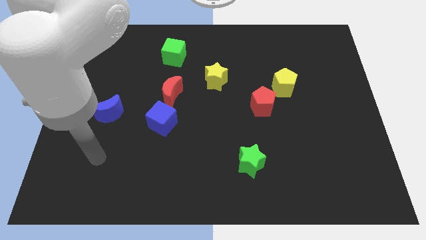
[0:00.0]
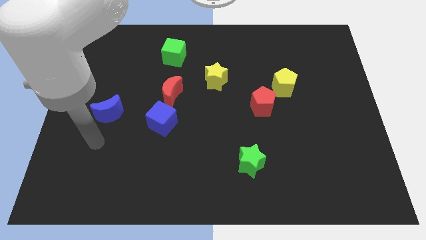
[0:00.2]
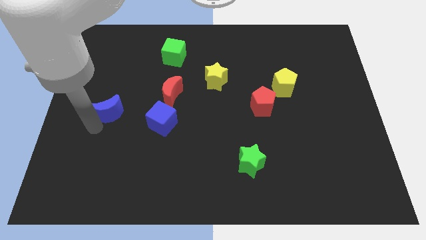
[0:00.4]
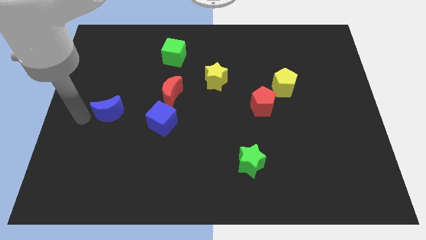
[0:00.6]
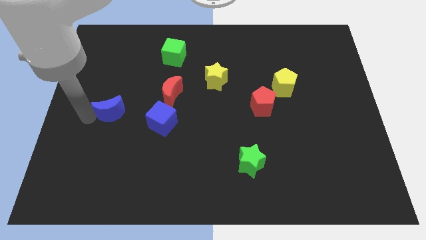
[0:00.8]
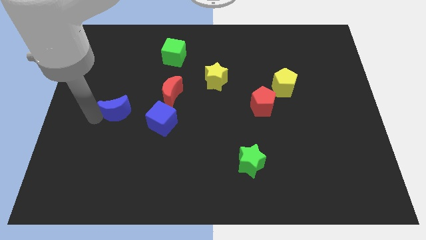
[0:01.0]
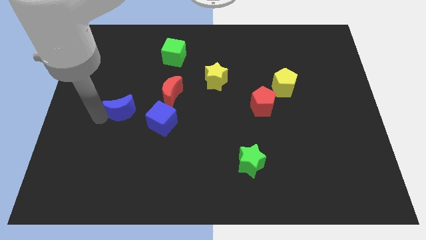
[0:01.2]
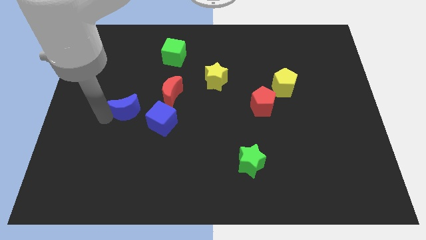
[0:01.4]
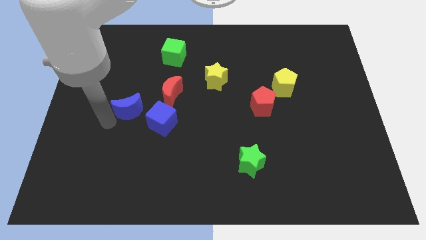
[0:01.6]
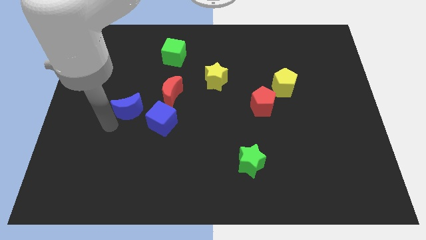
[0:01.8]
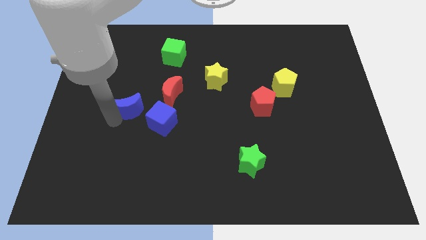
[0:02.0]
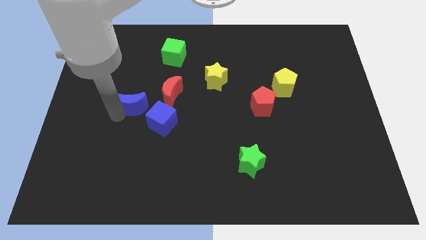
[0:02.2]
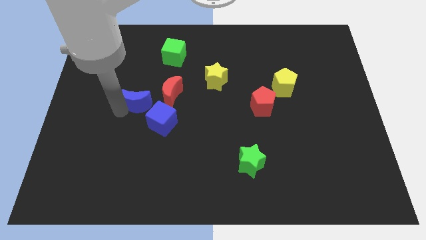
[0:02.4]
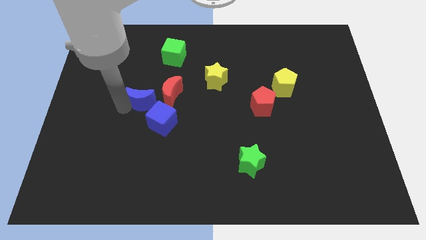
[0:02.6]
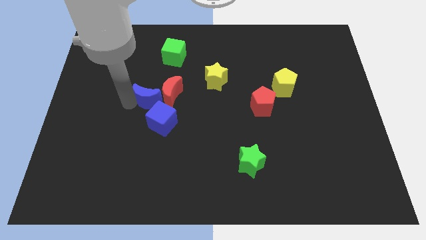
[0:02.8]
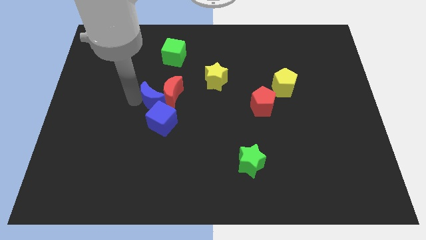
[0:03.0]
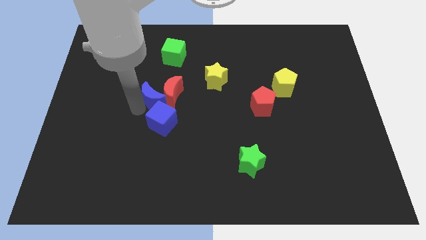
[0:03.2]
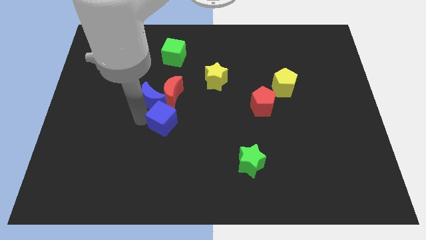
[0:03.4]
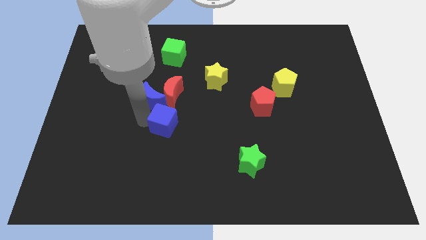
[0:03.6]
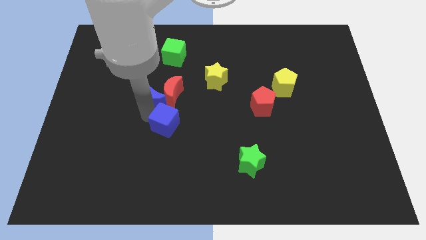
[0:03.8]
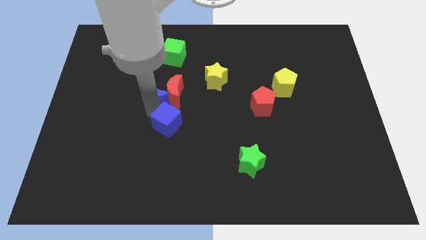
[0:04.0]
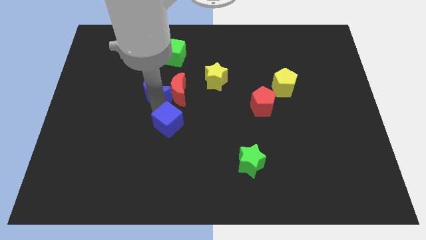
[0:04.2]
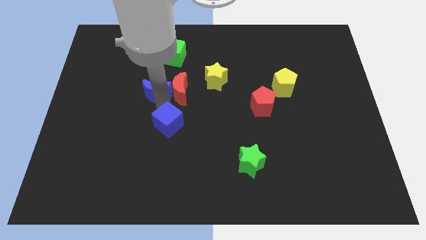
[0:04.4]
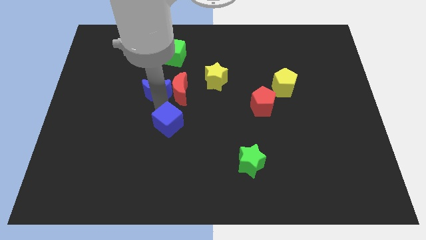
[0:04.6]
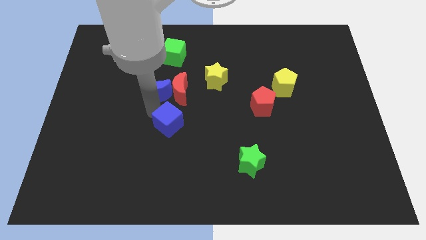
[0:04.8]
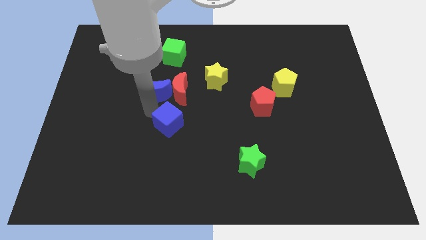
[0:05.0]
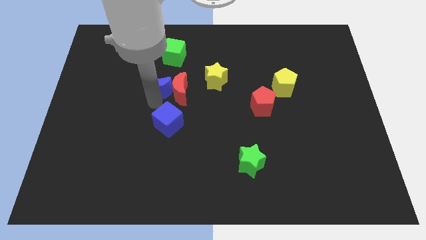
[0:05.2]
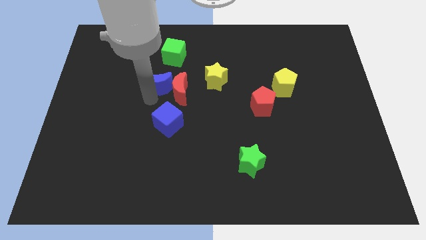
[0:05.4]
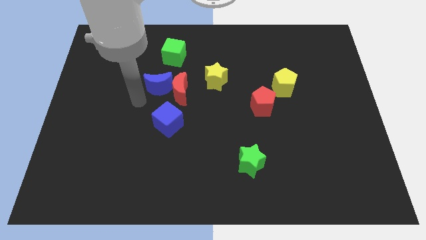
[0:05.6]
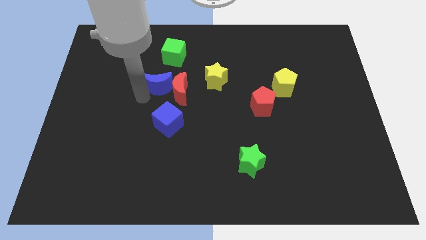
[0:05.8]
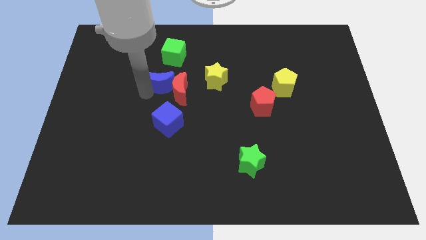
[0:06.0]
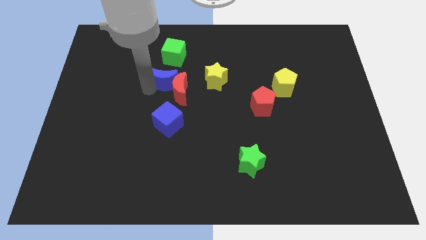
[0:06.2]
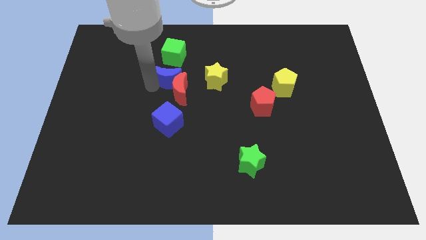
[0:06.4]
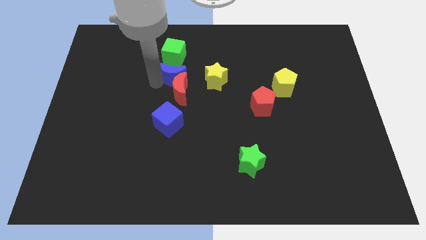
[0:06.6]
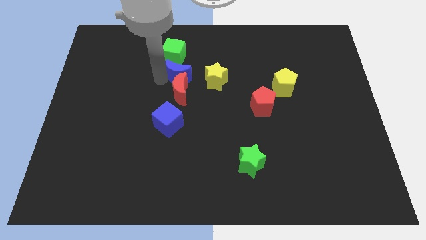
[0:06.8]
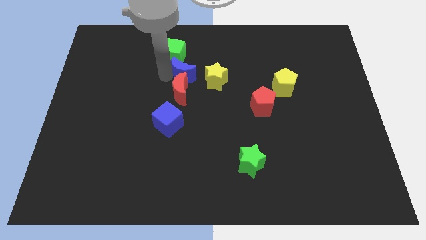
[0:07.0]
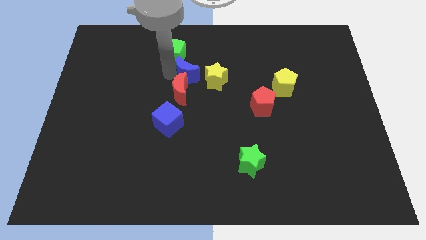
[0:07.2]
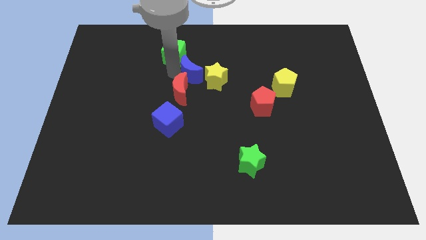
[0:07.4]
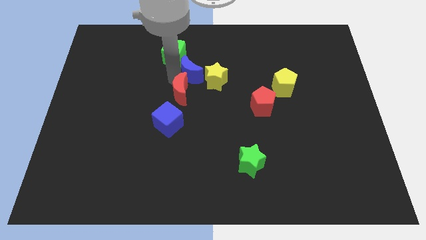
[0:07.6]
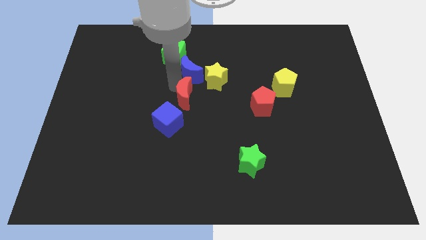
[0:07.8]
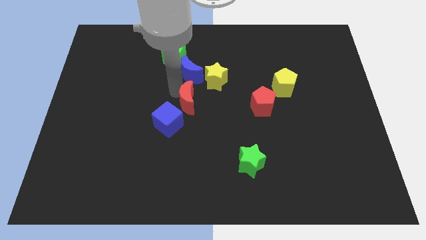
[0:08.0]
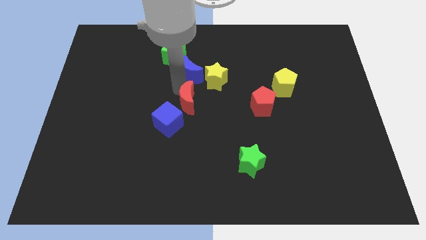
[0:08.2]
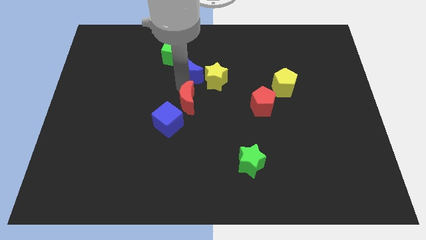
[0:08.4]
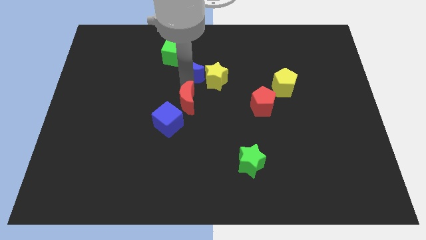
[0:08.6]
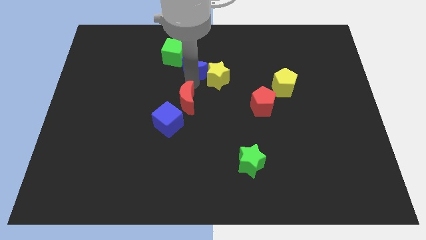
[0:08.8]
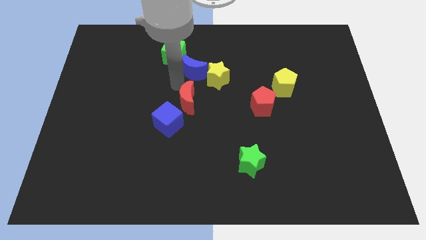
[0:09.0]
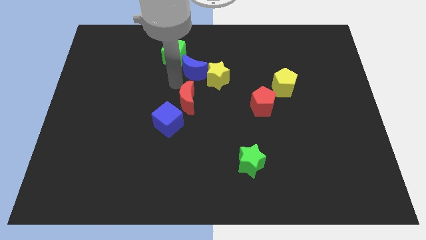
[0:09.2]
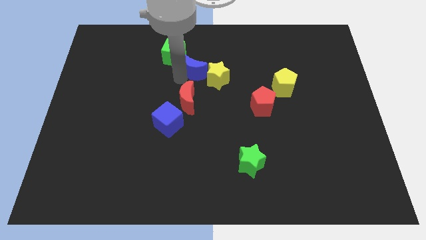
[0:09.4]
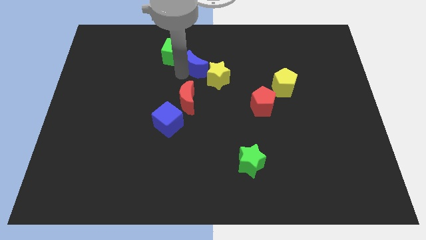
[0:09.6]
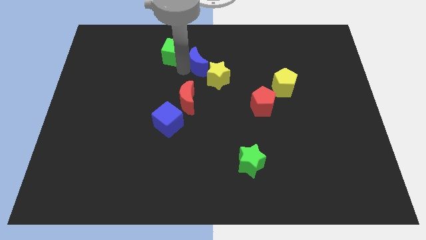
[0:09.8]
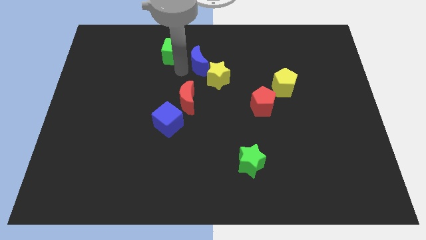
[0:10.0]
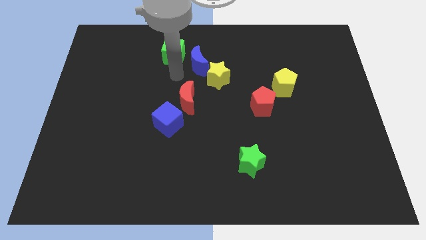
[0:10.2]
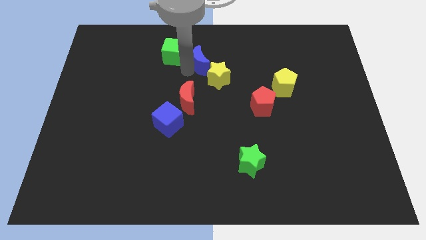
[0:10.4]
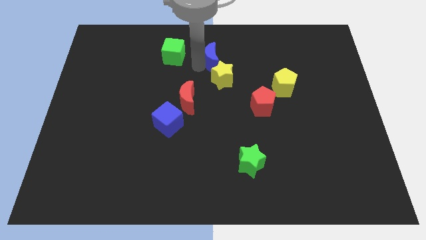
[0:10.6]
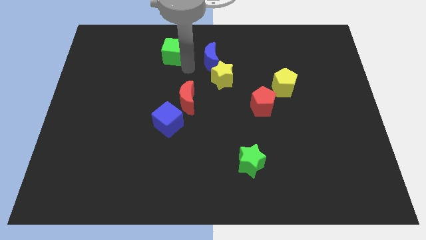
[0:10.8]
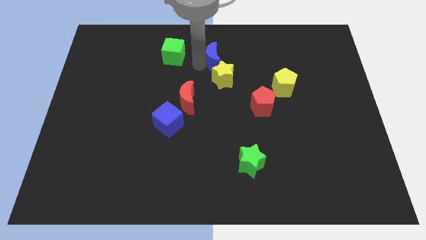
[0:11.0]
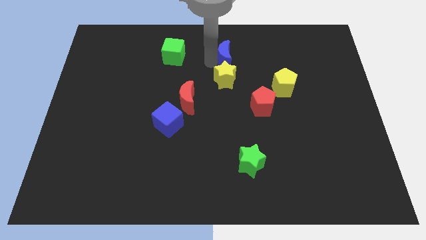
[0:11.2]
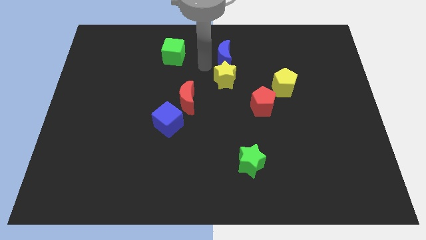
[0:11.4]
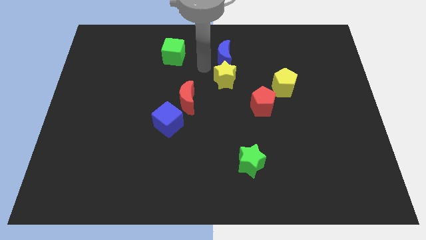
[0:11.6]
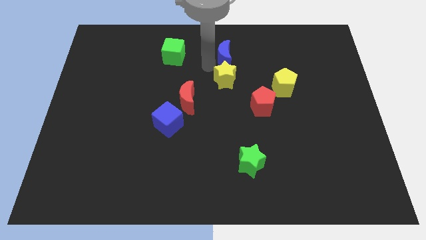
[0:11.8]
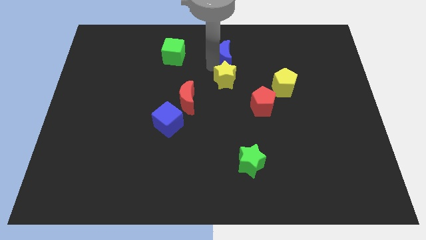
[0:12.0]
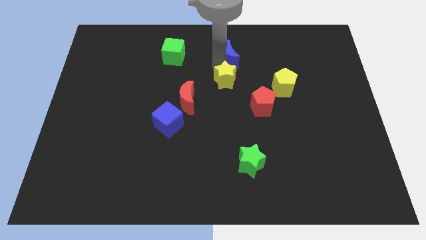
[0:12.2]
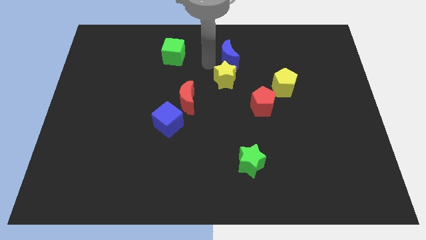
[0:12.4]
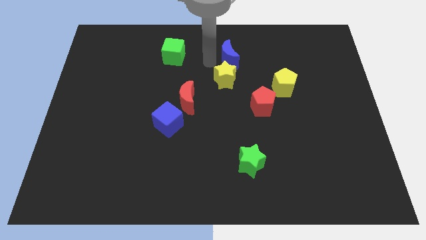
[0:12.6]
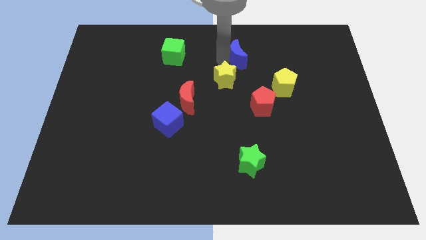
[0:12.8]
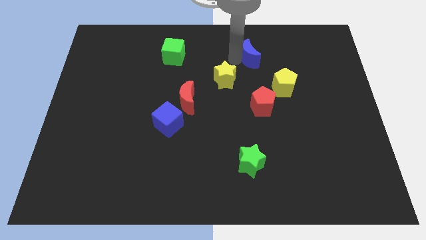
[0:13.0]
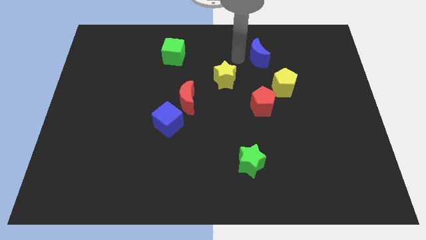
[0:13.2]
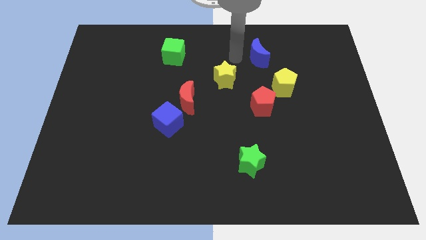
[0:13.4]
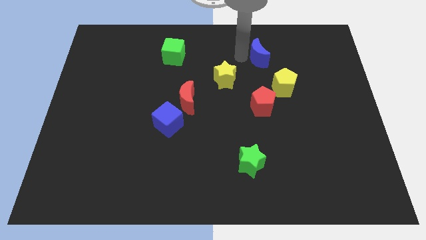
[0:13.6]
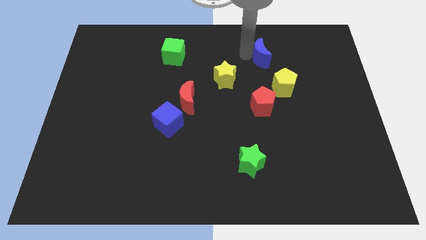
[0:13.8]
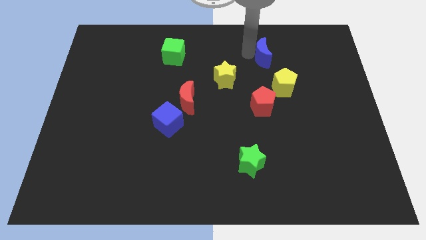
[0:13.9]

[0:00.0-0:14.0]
move the blue moon to the top side of the yellow pentagon

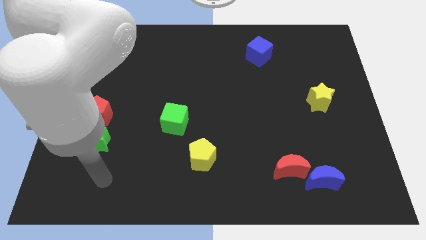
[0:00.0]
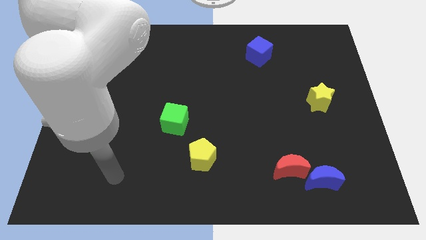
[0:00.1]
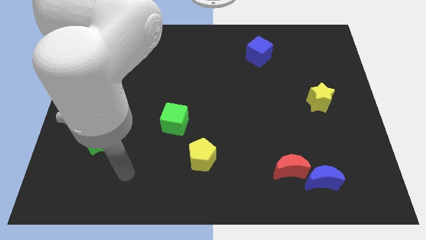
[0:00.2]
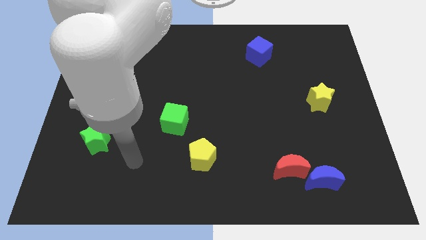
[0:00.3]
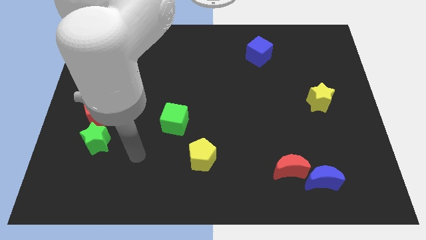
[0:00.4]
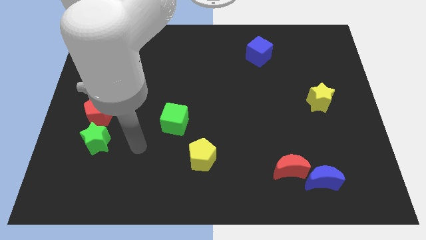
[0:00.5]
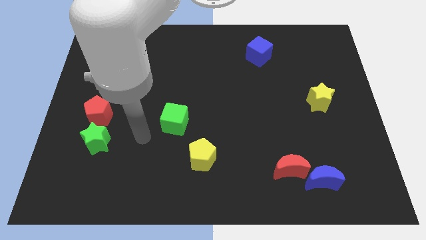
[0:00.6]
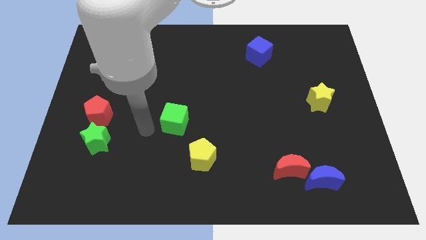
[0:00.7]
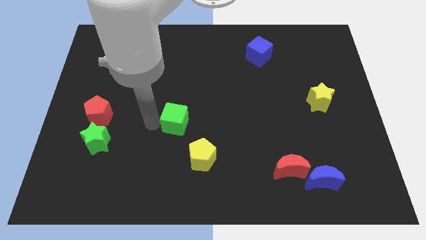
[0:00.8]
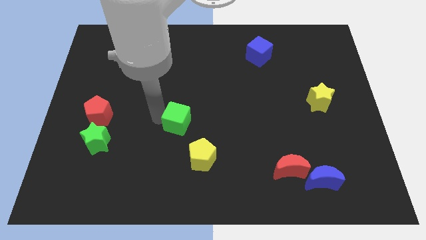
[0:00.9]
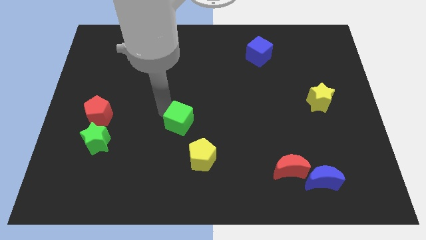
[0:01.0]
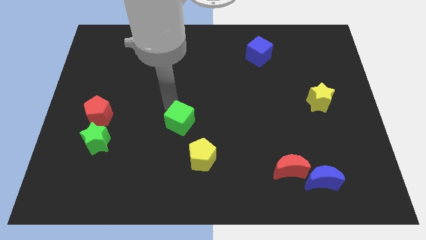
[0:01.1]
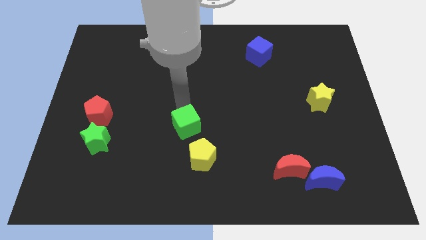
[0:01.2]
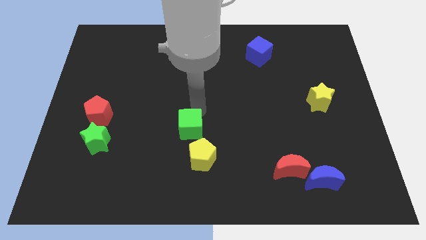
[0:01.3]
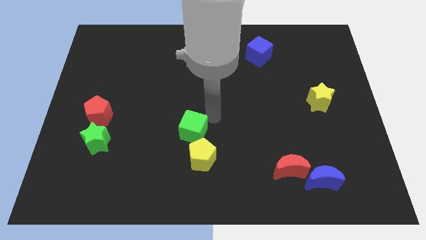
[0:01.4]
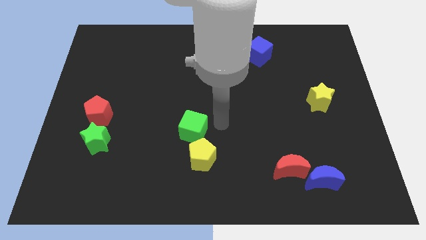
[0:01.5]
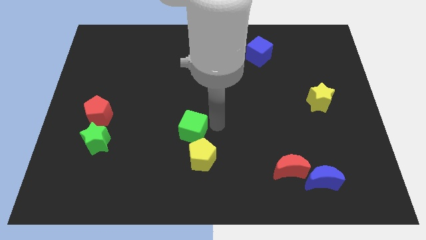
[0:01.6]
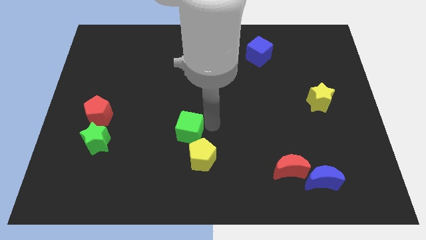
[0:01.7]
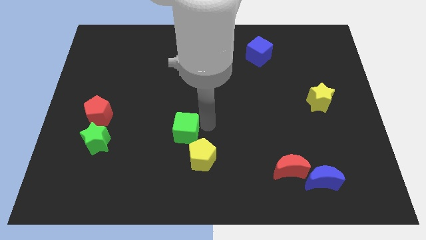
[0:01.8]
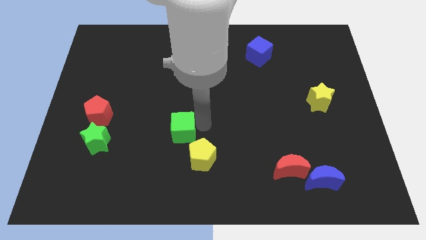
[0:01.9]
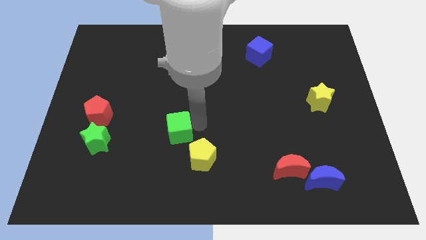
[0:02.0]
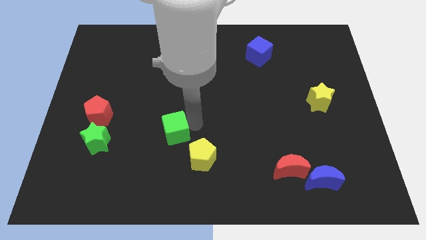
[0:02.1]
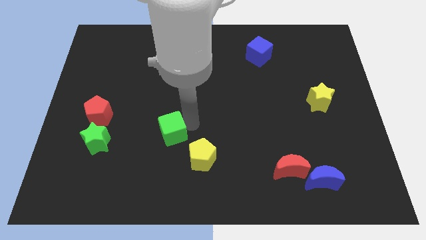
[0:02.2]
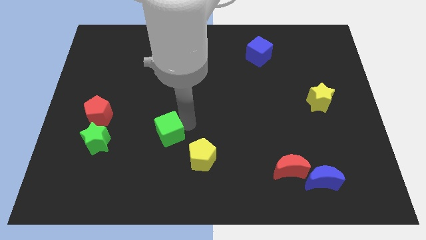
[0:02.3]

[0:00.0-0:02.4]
put the green cube to the right side of the green star
